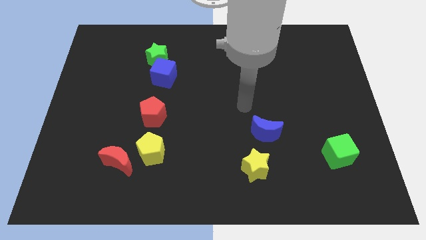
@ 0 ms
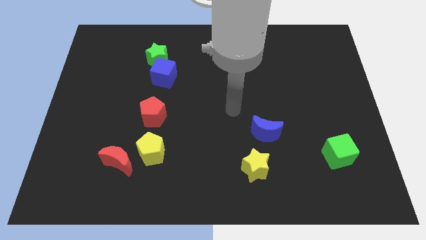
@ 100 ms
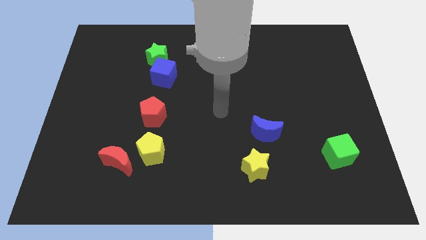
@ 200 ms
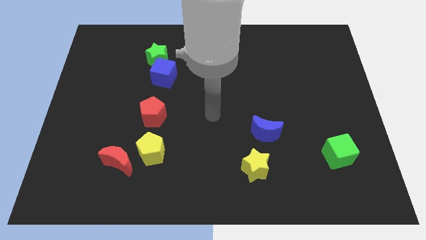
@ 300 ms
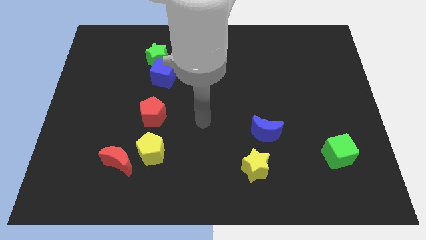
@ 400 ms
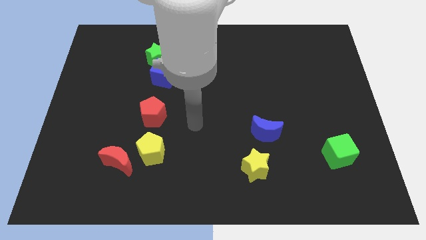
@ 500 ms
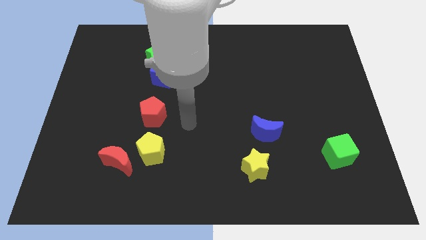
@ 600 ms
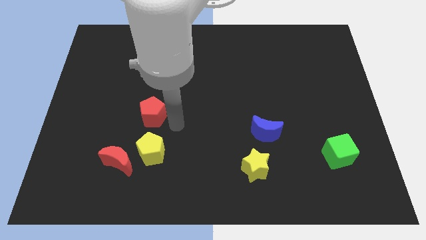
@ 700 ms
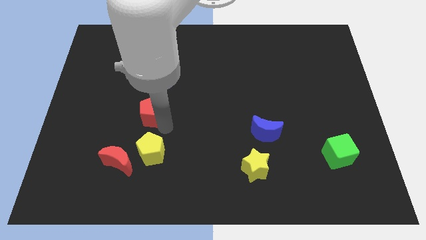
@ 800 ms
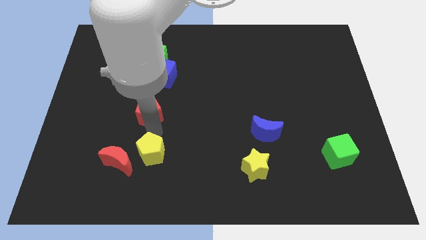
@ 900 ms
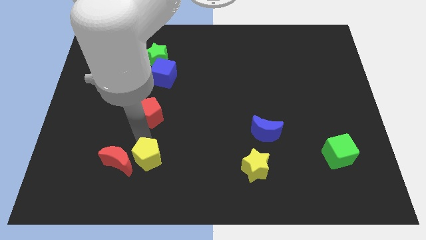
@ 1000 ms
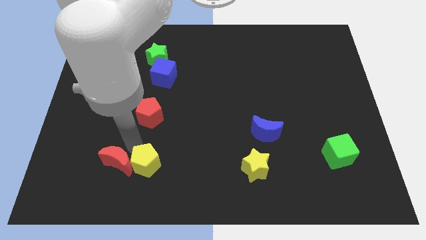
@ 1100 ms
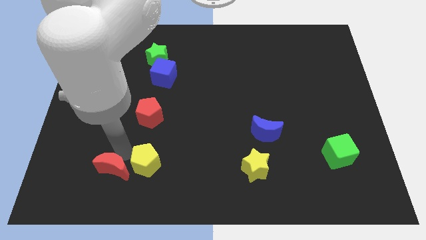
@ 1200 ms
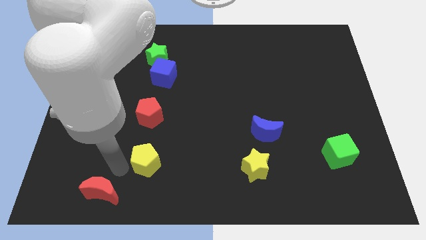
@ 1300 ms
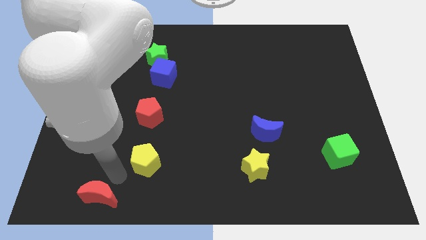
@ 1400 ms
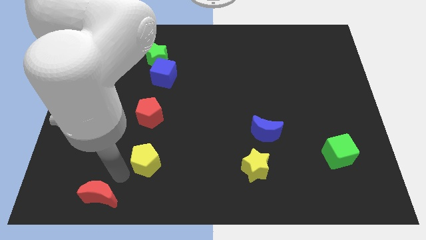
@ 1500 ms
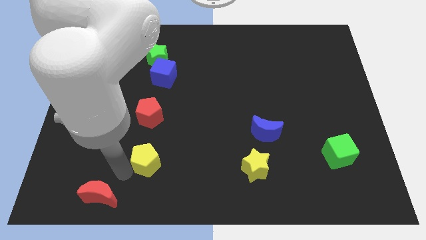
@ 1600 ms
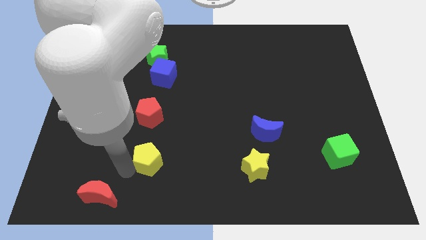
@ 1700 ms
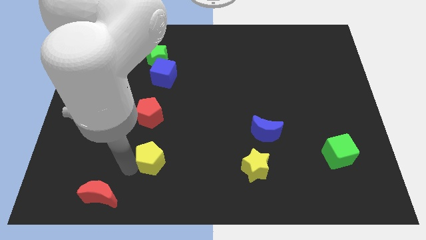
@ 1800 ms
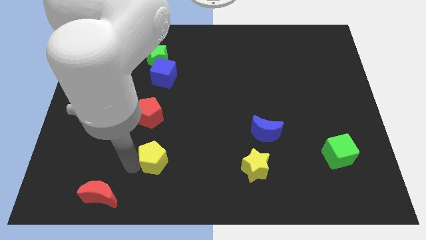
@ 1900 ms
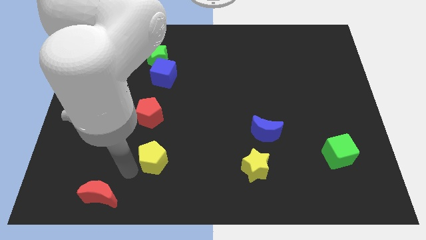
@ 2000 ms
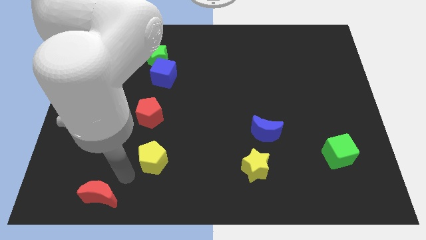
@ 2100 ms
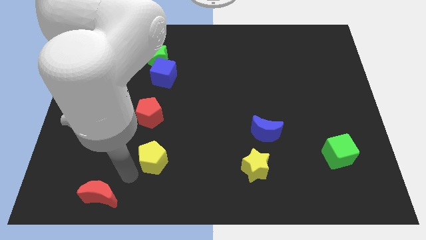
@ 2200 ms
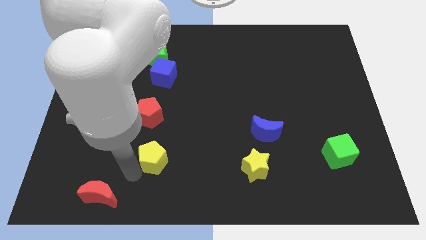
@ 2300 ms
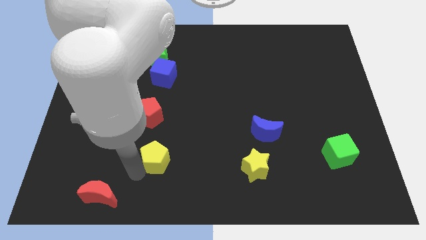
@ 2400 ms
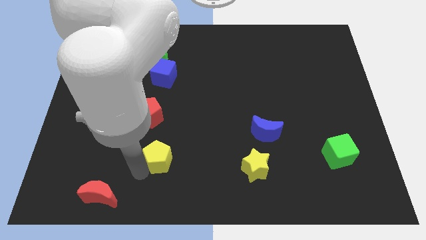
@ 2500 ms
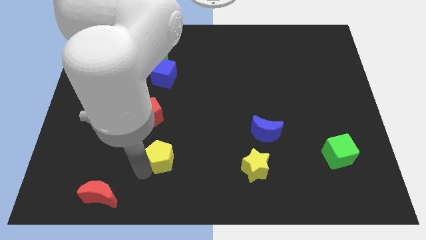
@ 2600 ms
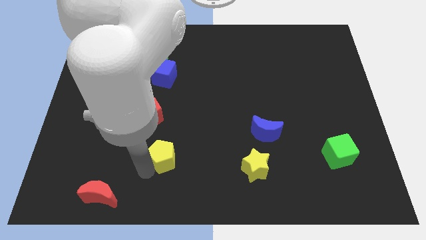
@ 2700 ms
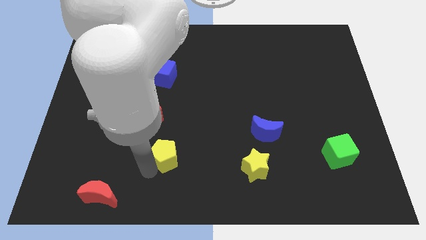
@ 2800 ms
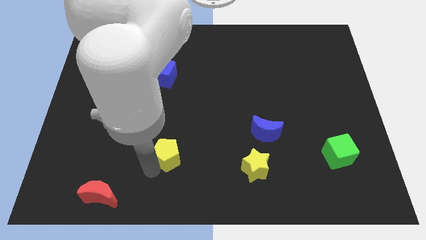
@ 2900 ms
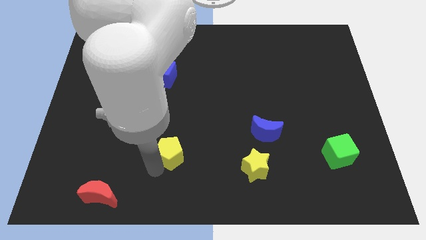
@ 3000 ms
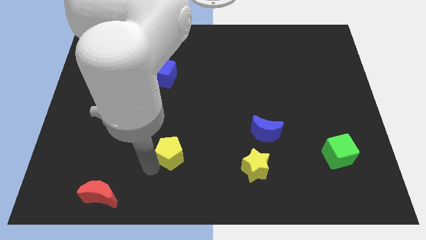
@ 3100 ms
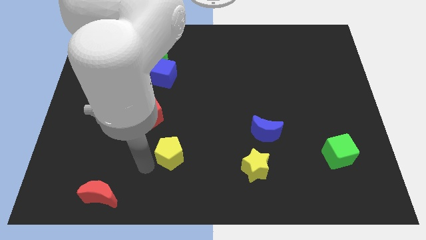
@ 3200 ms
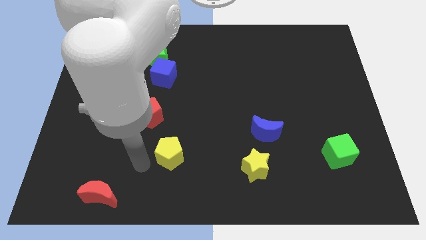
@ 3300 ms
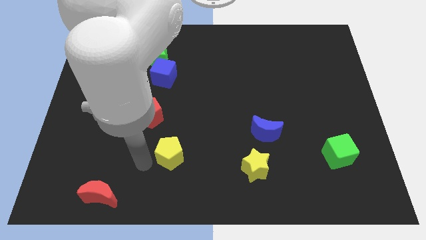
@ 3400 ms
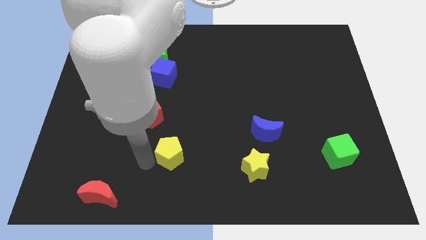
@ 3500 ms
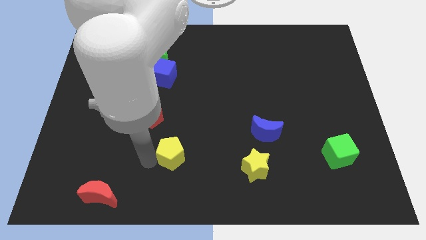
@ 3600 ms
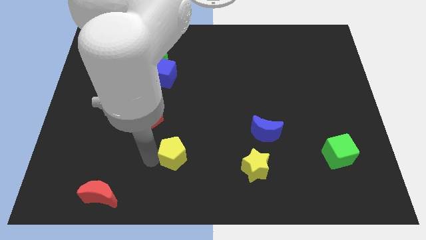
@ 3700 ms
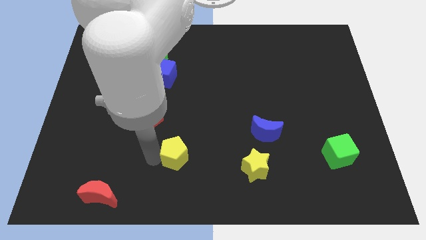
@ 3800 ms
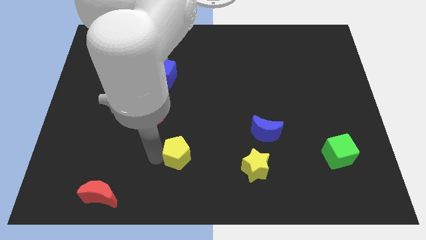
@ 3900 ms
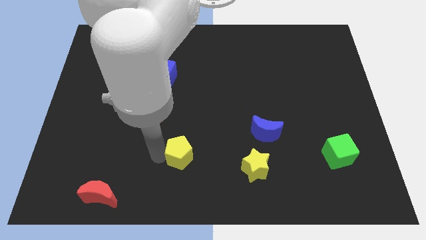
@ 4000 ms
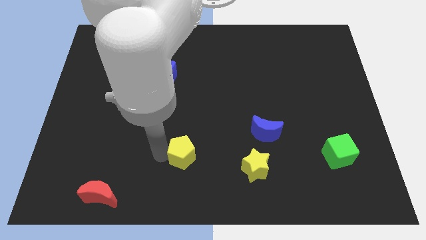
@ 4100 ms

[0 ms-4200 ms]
move the yellow pentagon a little bit to the right

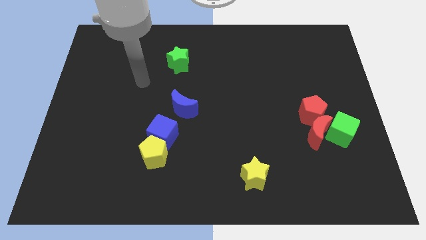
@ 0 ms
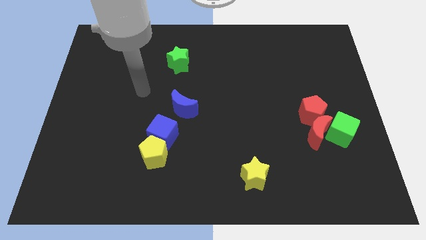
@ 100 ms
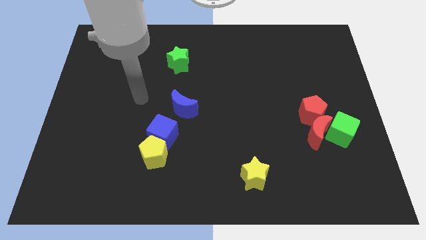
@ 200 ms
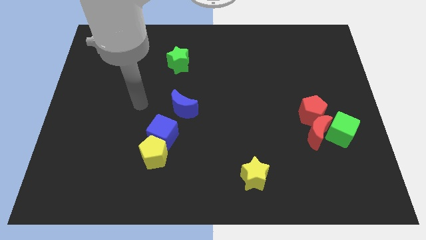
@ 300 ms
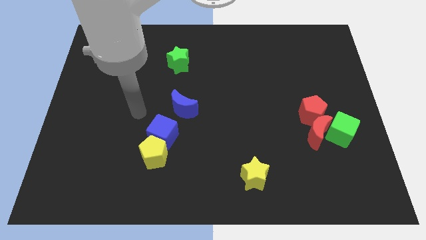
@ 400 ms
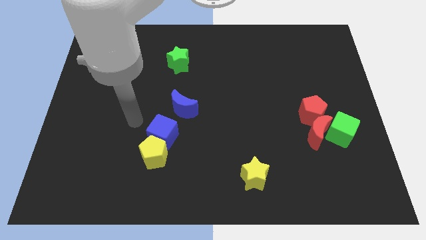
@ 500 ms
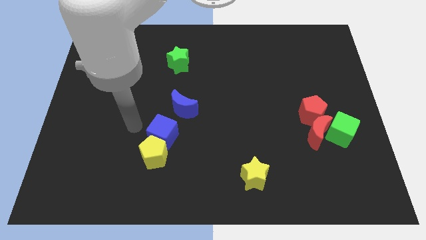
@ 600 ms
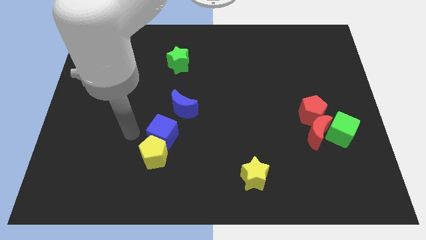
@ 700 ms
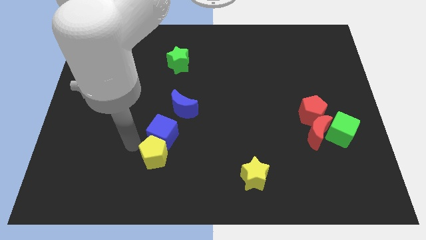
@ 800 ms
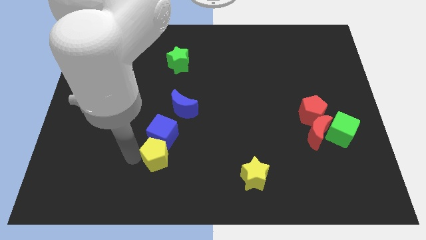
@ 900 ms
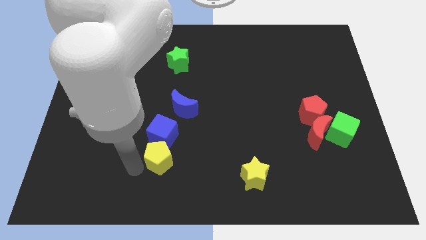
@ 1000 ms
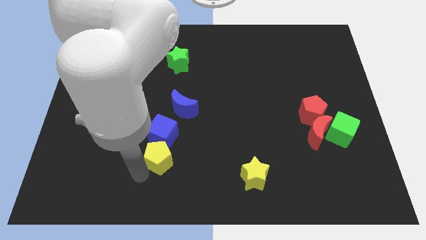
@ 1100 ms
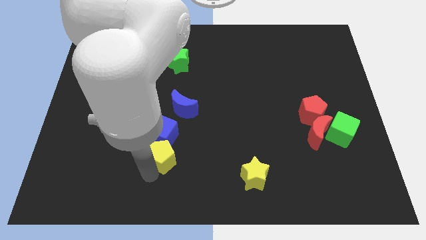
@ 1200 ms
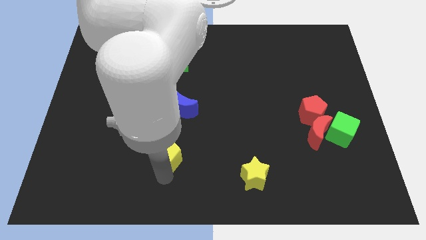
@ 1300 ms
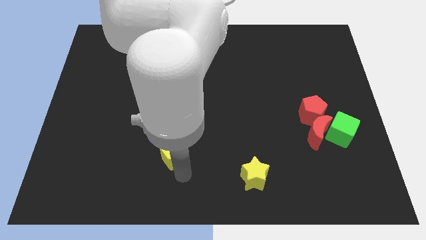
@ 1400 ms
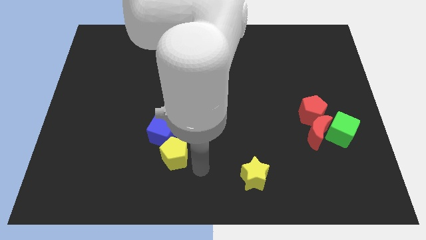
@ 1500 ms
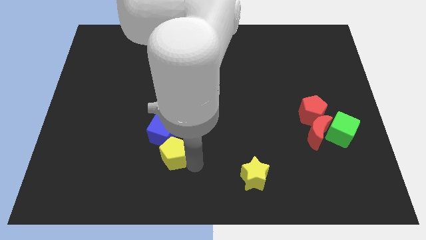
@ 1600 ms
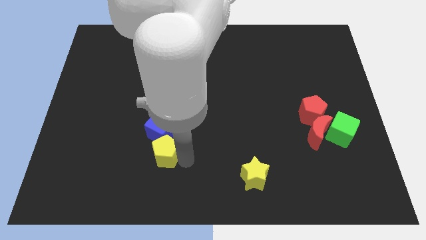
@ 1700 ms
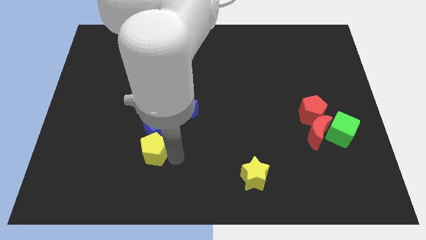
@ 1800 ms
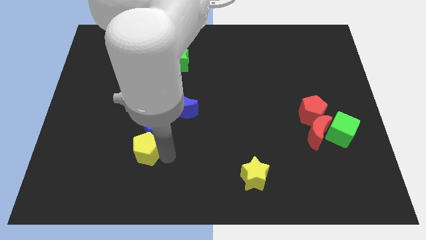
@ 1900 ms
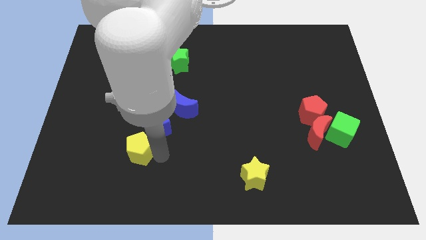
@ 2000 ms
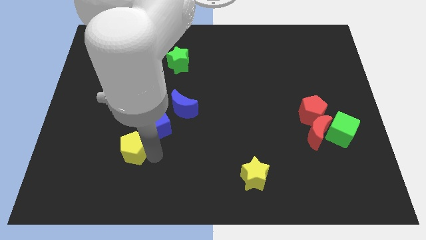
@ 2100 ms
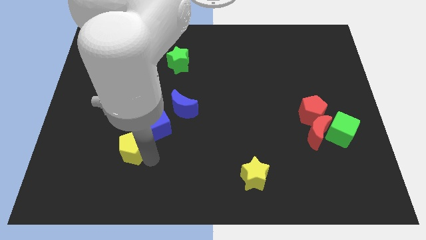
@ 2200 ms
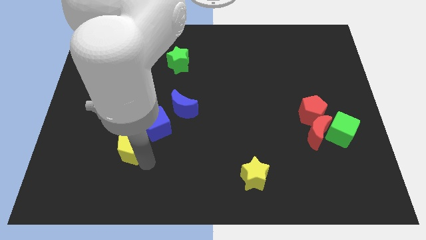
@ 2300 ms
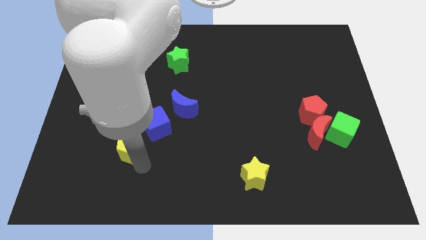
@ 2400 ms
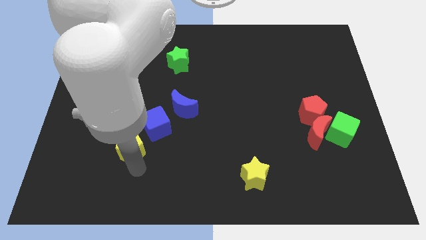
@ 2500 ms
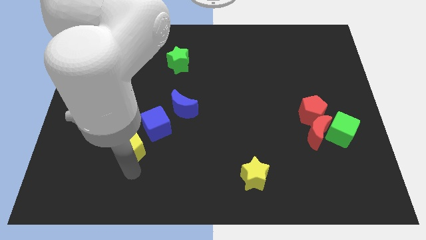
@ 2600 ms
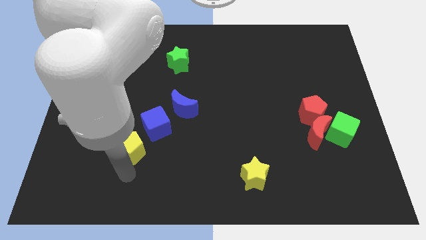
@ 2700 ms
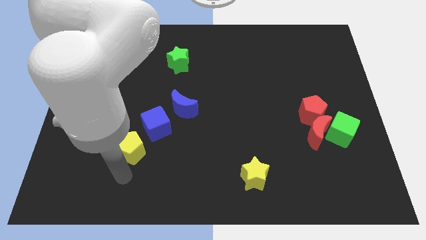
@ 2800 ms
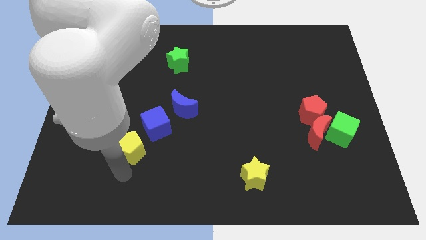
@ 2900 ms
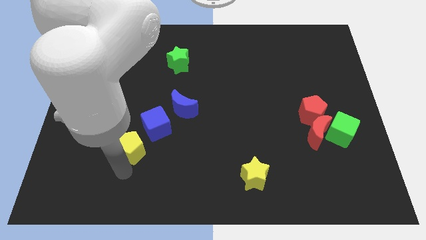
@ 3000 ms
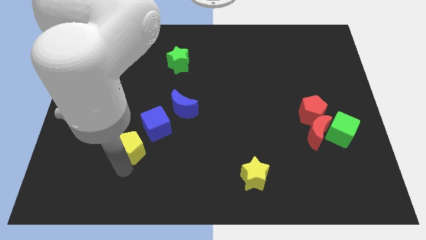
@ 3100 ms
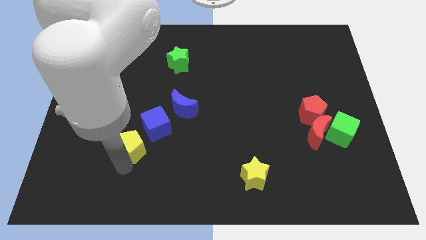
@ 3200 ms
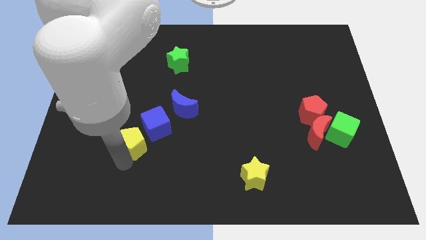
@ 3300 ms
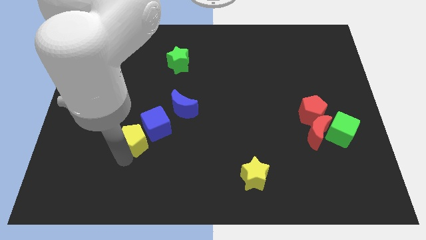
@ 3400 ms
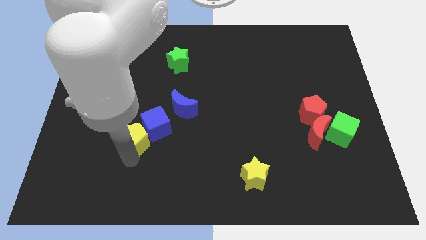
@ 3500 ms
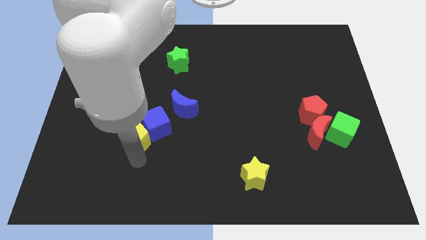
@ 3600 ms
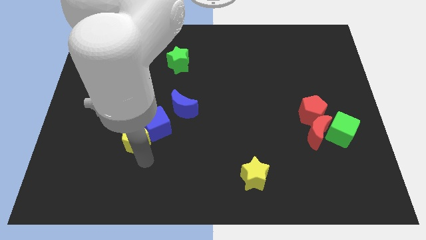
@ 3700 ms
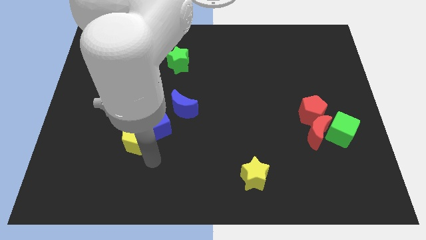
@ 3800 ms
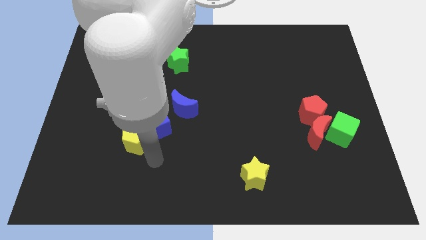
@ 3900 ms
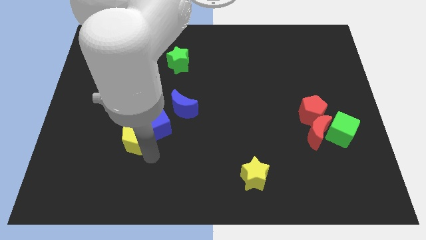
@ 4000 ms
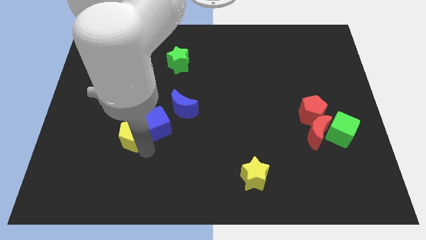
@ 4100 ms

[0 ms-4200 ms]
slide the yellow pentagon a little bit up and left diagonally
